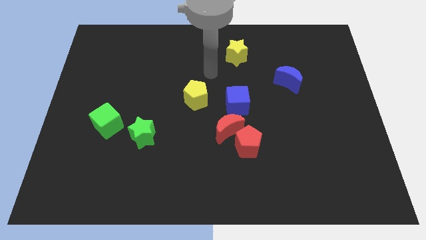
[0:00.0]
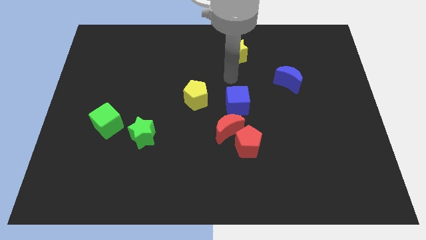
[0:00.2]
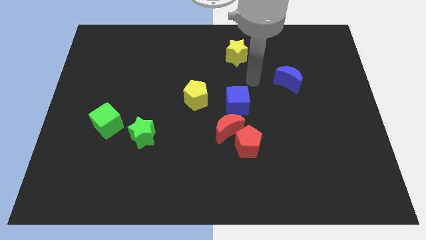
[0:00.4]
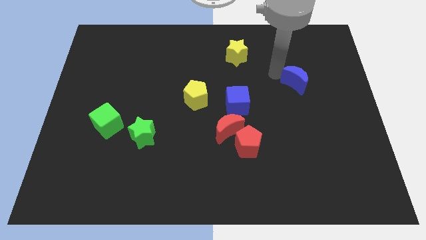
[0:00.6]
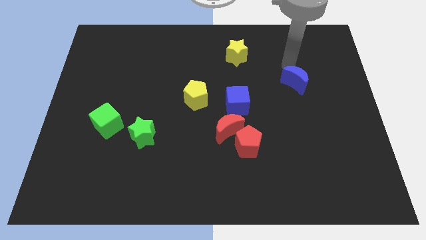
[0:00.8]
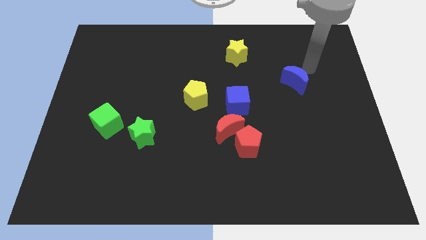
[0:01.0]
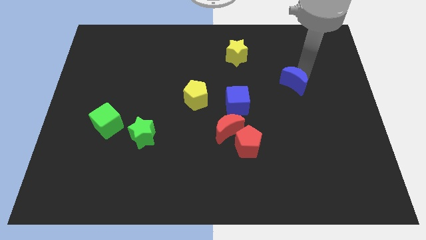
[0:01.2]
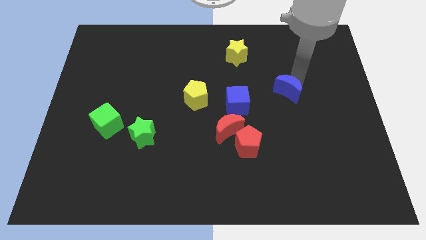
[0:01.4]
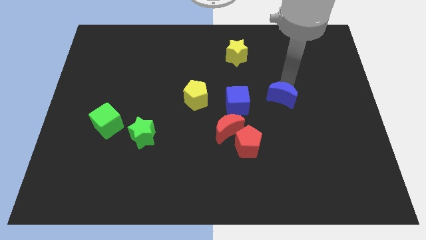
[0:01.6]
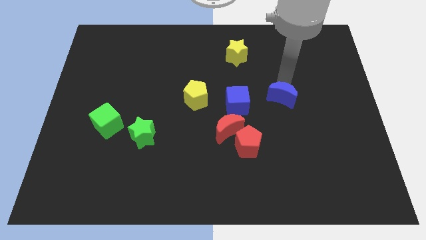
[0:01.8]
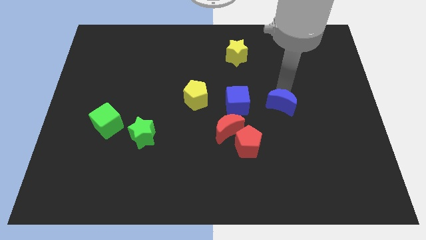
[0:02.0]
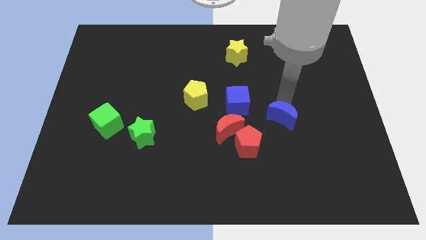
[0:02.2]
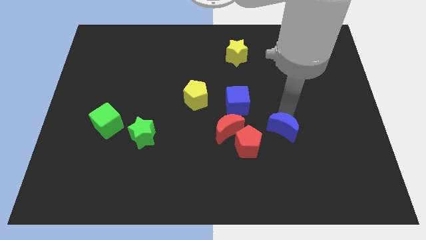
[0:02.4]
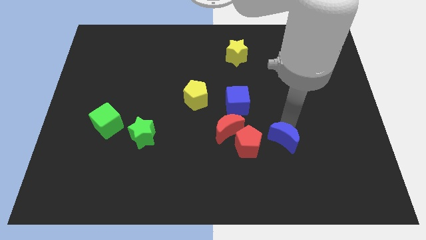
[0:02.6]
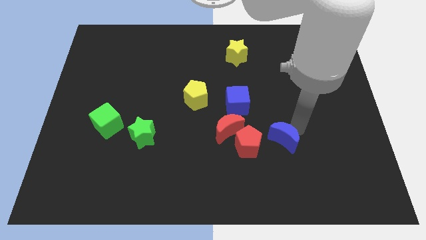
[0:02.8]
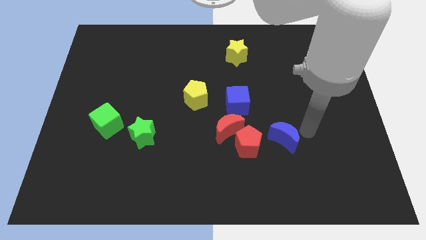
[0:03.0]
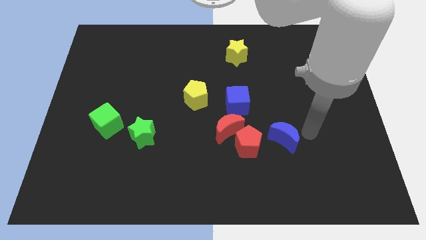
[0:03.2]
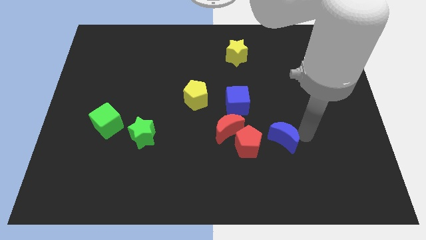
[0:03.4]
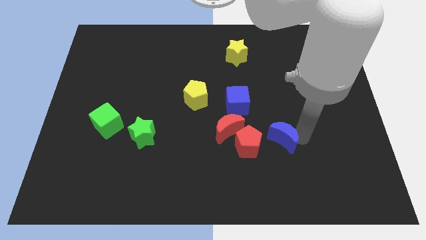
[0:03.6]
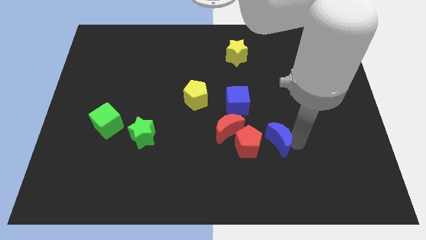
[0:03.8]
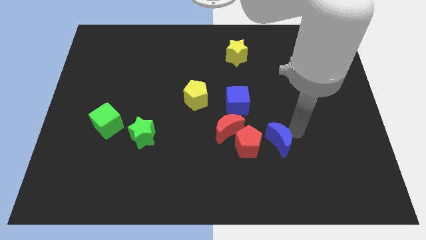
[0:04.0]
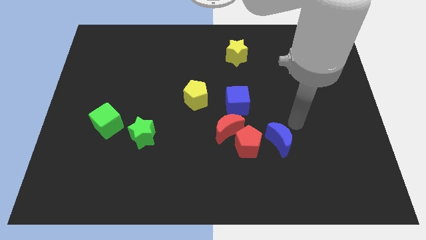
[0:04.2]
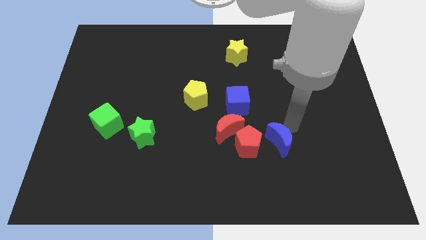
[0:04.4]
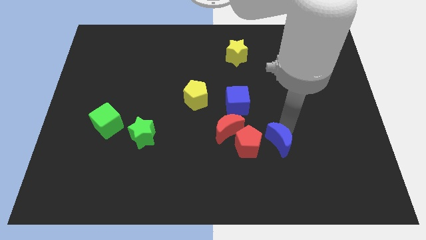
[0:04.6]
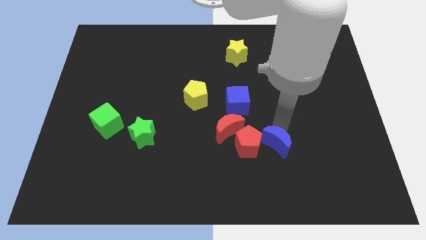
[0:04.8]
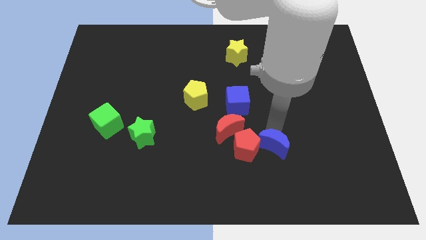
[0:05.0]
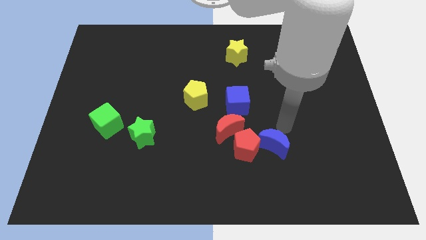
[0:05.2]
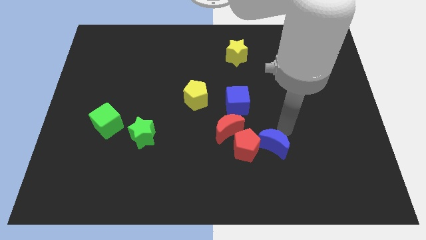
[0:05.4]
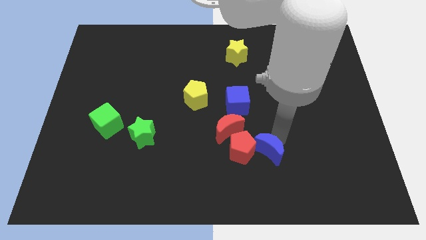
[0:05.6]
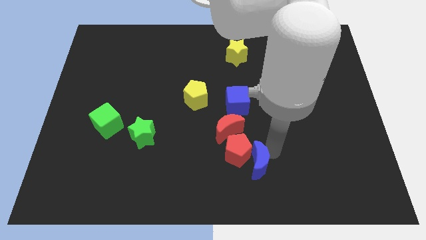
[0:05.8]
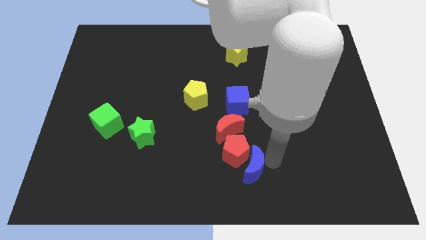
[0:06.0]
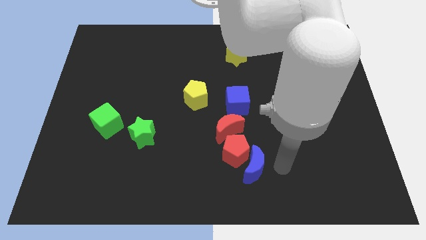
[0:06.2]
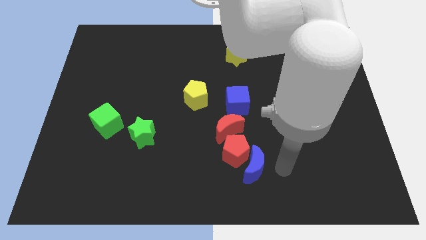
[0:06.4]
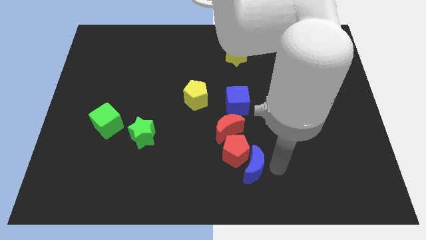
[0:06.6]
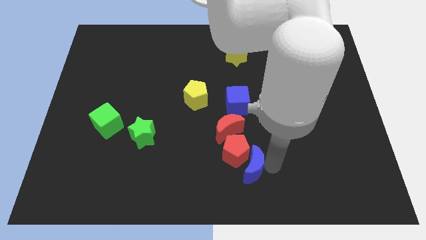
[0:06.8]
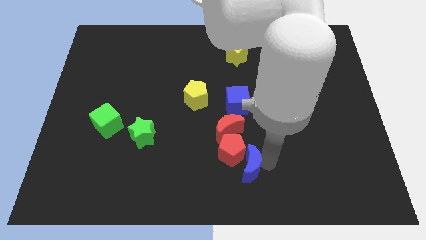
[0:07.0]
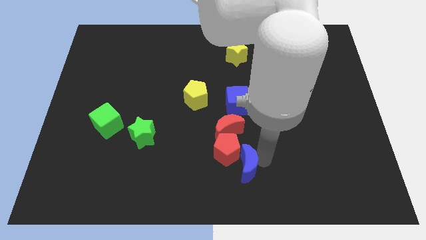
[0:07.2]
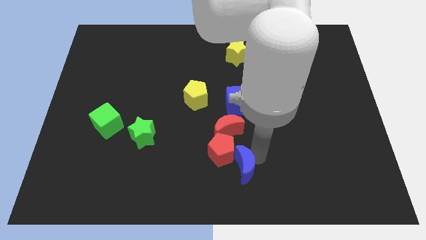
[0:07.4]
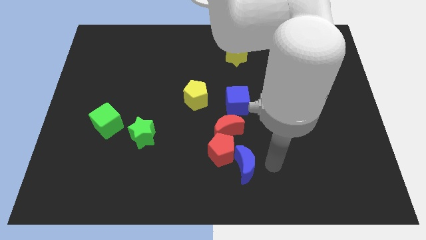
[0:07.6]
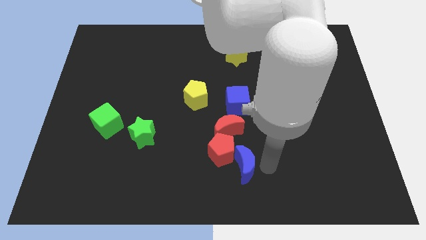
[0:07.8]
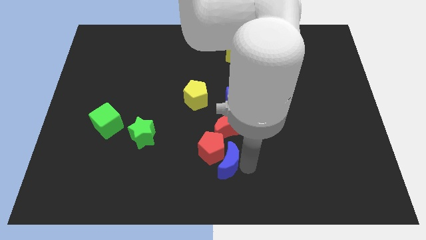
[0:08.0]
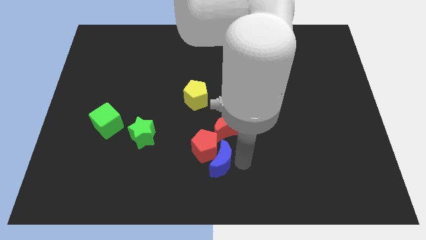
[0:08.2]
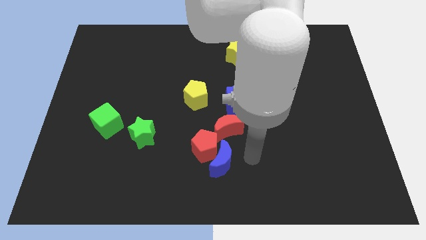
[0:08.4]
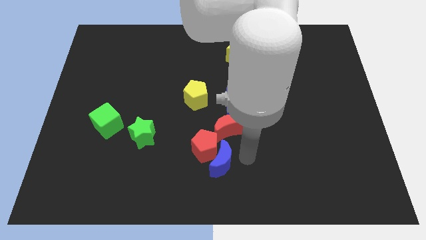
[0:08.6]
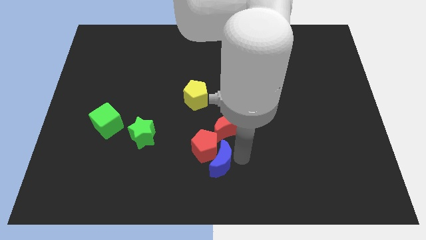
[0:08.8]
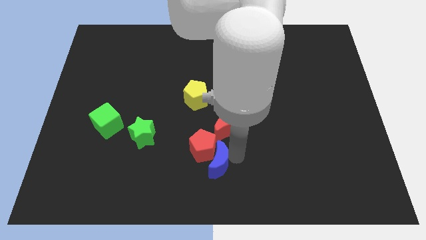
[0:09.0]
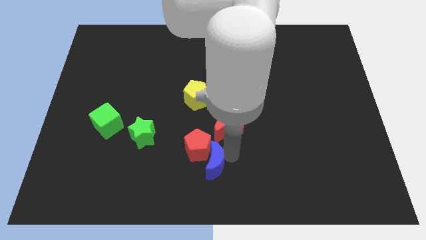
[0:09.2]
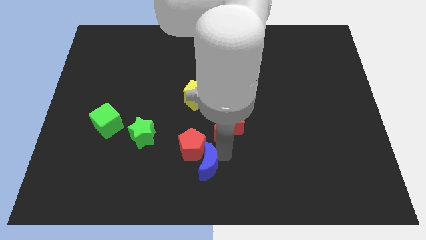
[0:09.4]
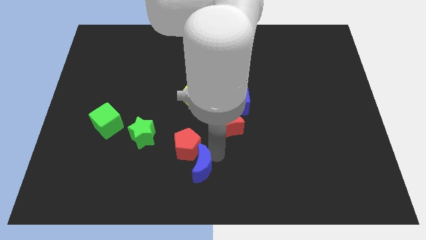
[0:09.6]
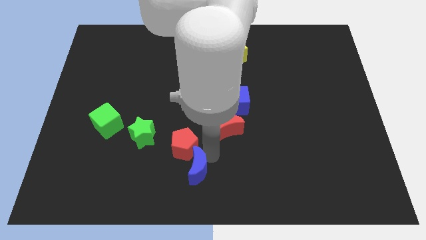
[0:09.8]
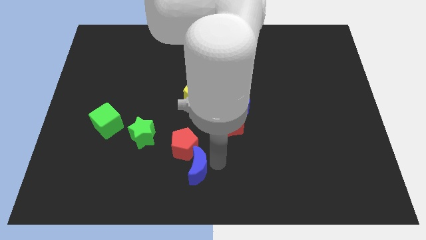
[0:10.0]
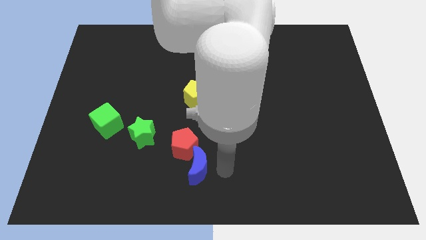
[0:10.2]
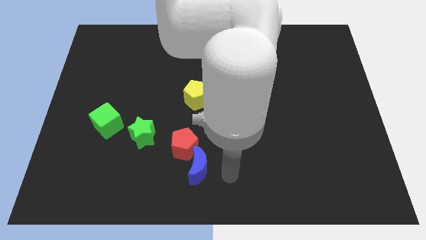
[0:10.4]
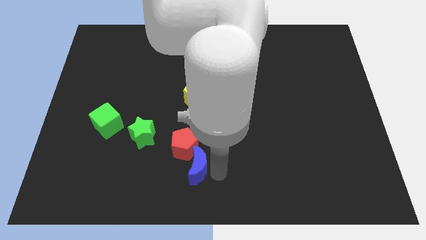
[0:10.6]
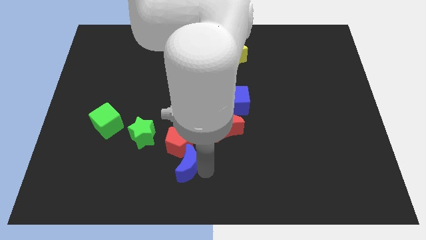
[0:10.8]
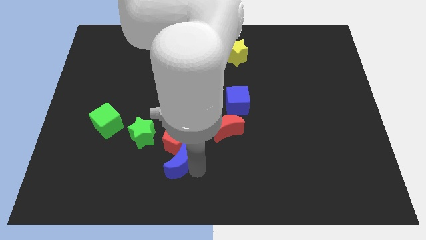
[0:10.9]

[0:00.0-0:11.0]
move the blue moon to the bottom right side of the green star

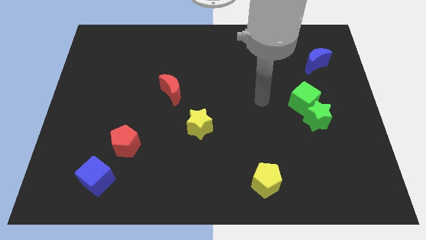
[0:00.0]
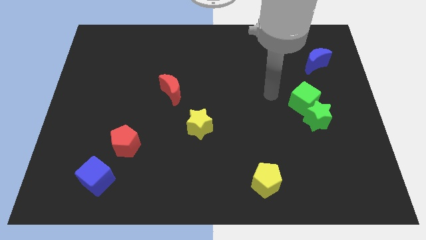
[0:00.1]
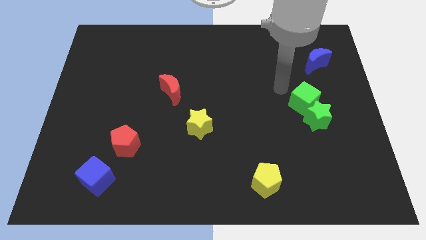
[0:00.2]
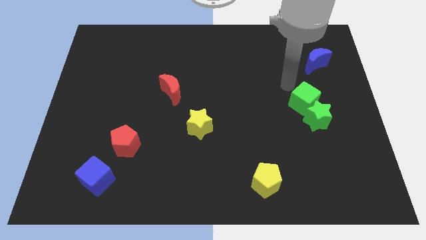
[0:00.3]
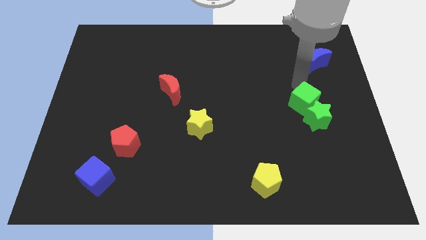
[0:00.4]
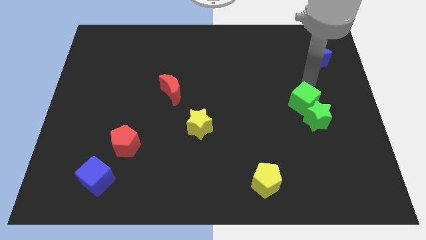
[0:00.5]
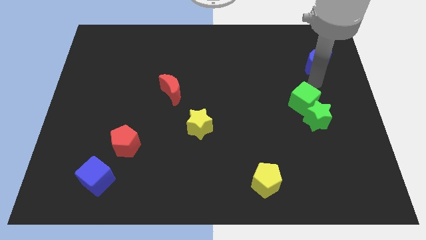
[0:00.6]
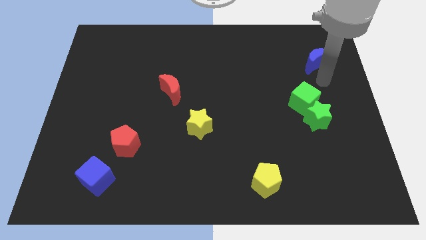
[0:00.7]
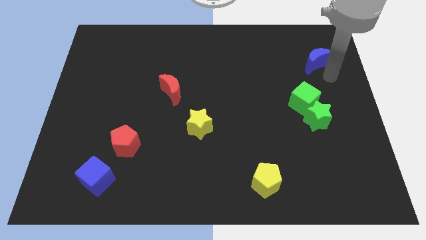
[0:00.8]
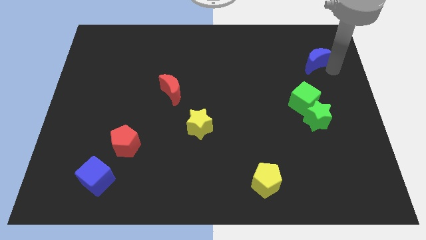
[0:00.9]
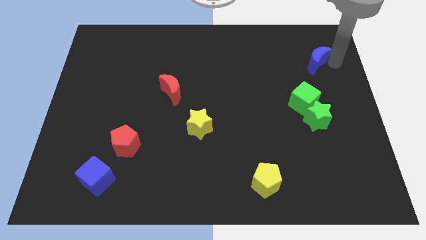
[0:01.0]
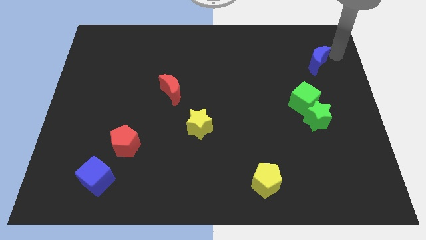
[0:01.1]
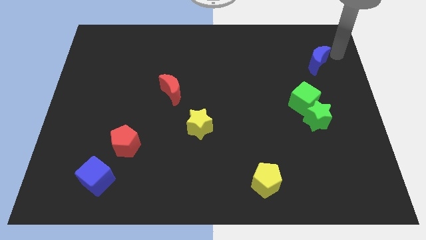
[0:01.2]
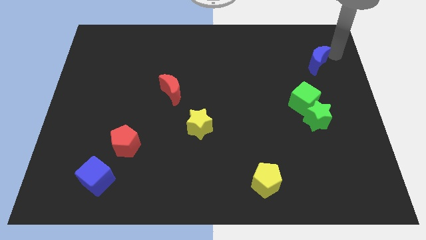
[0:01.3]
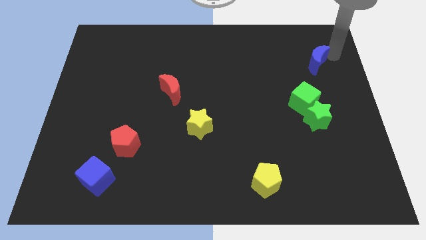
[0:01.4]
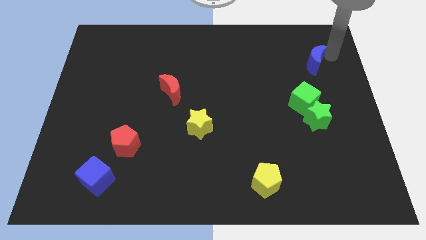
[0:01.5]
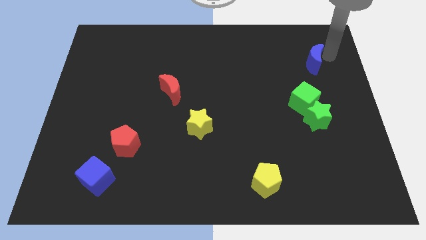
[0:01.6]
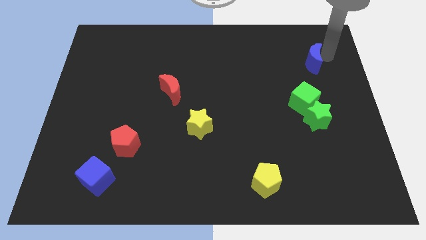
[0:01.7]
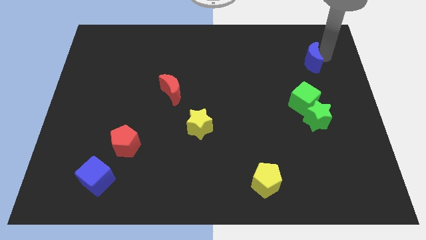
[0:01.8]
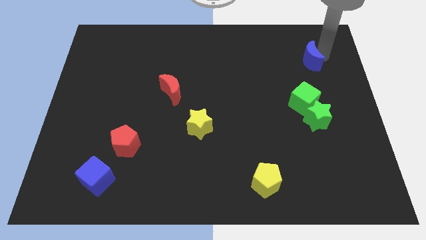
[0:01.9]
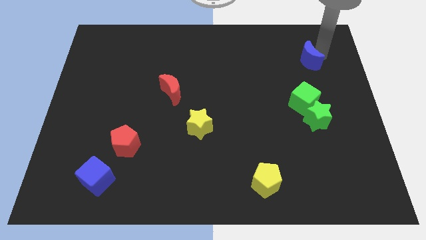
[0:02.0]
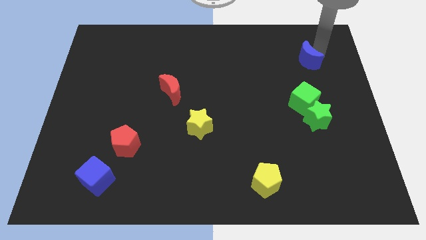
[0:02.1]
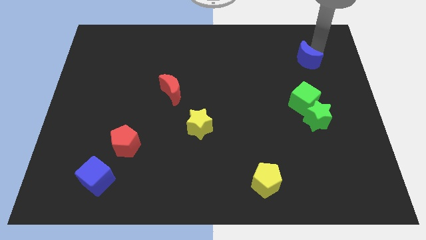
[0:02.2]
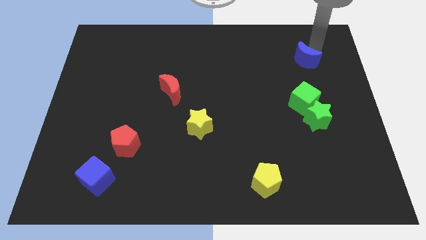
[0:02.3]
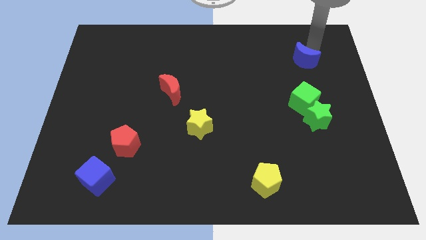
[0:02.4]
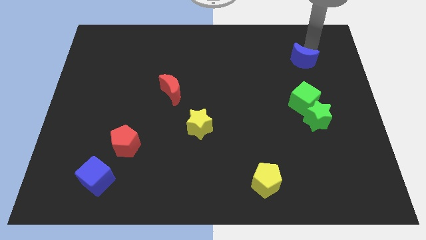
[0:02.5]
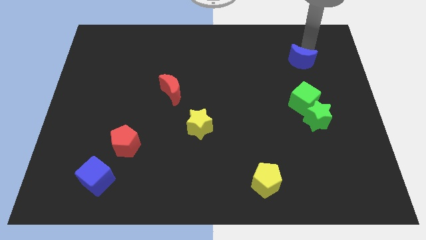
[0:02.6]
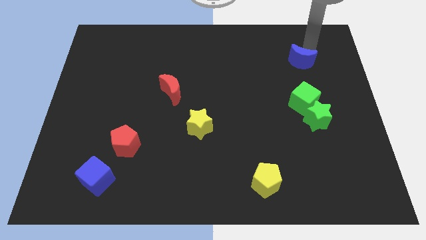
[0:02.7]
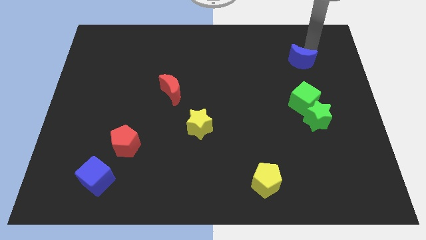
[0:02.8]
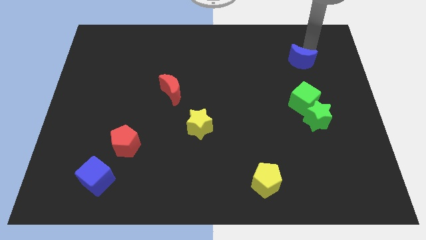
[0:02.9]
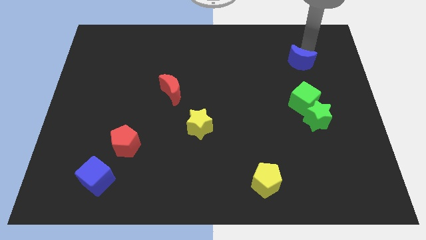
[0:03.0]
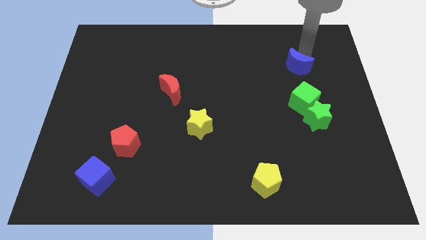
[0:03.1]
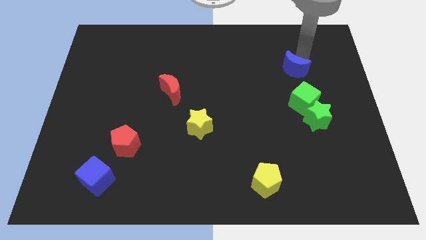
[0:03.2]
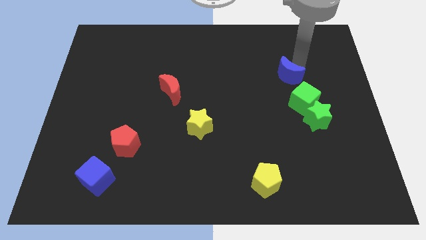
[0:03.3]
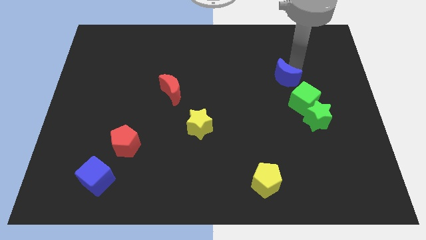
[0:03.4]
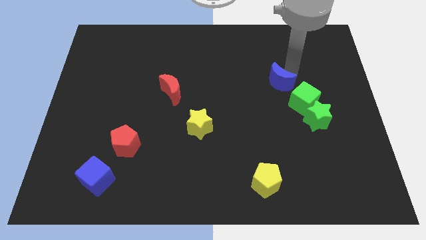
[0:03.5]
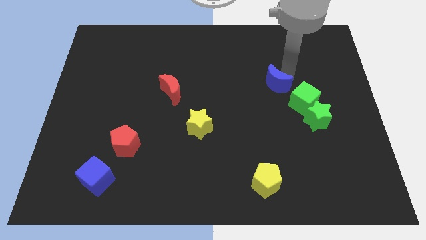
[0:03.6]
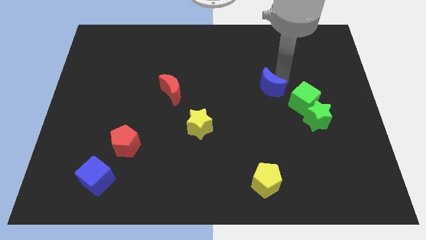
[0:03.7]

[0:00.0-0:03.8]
slide the blue moon to the left side of the green cube
